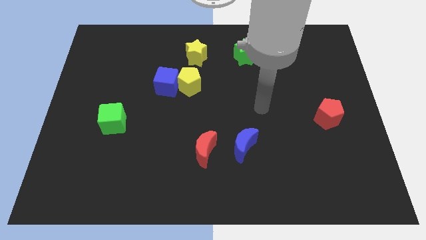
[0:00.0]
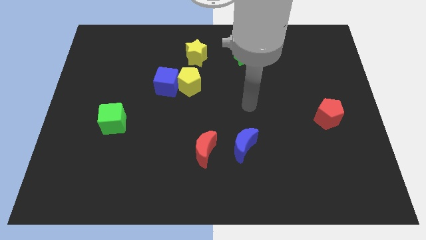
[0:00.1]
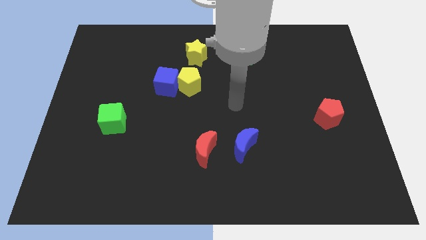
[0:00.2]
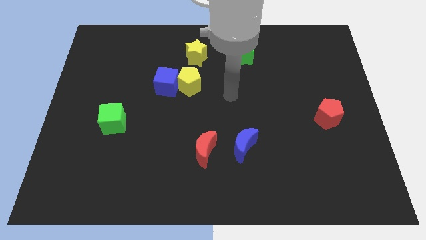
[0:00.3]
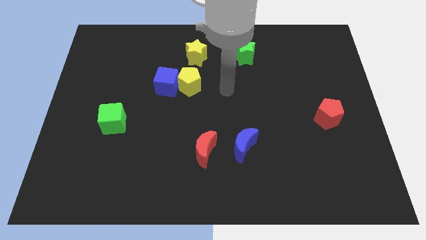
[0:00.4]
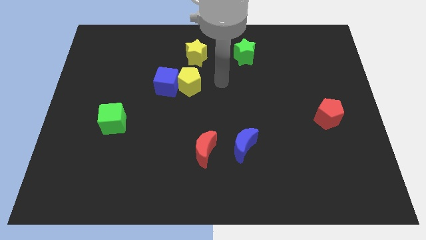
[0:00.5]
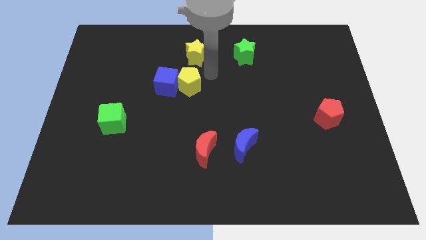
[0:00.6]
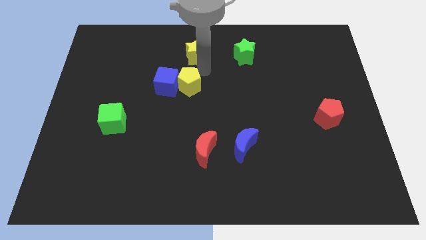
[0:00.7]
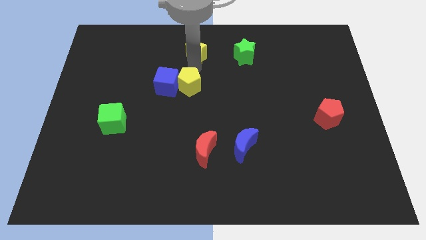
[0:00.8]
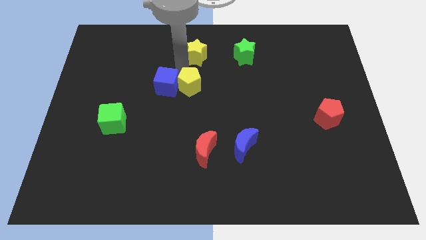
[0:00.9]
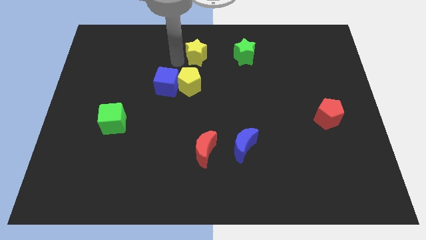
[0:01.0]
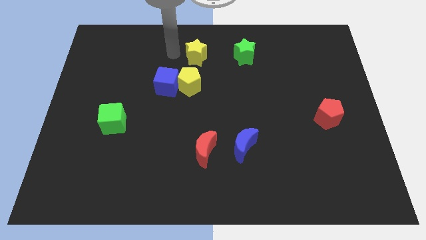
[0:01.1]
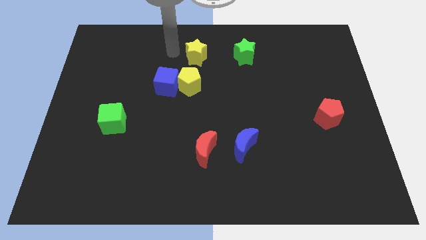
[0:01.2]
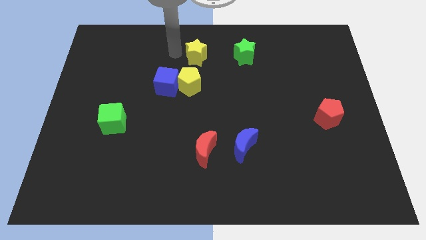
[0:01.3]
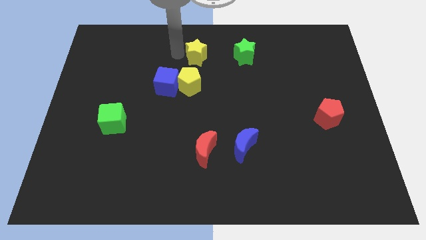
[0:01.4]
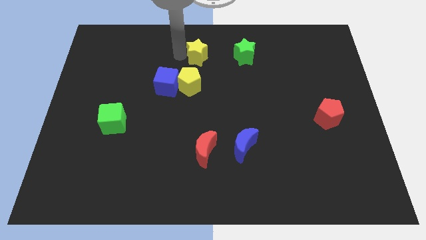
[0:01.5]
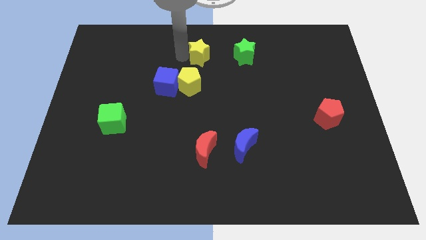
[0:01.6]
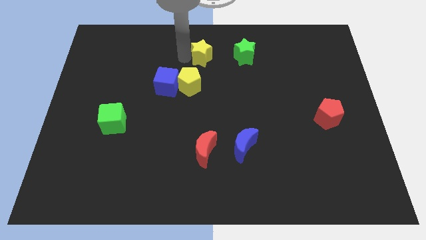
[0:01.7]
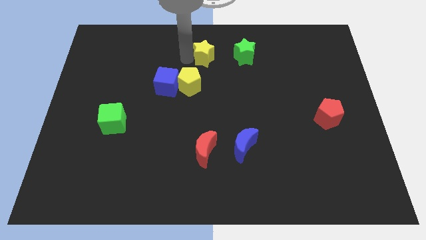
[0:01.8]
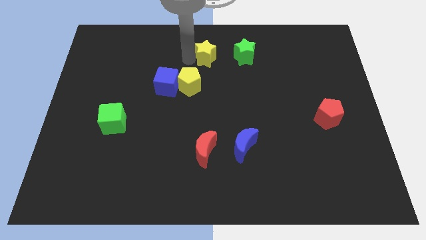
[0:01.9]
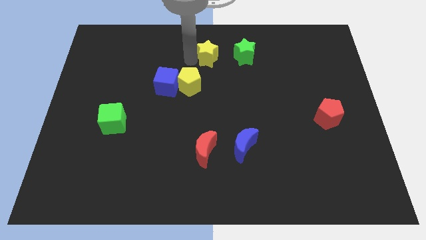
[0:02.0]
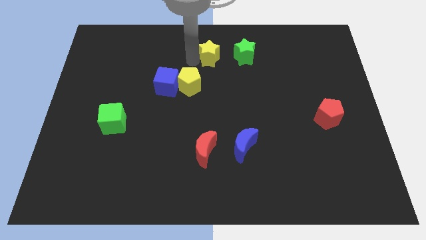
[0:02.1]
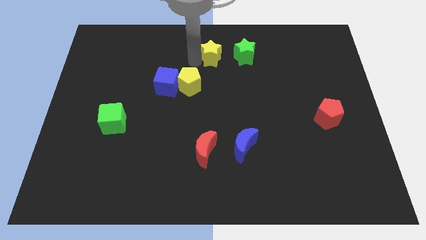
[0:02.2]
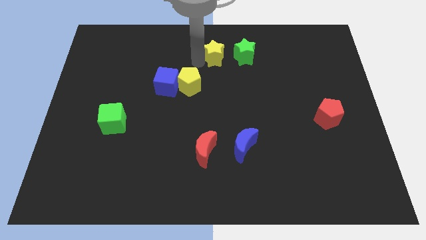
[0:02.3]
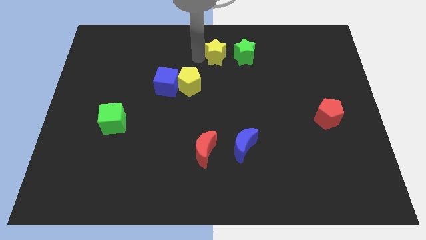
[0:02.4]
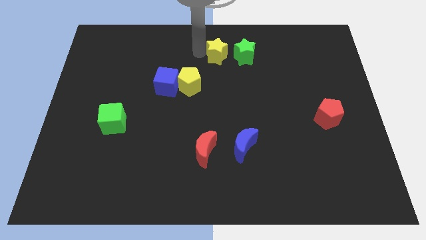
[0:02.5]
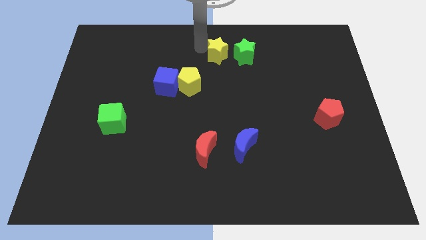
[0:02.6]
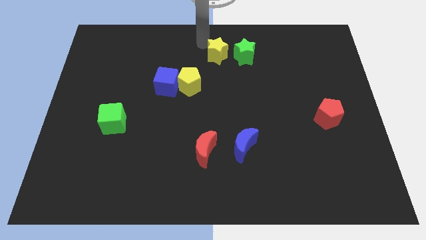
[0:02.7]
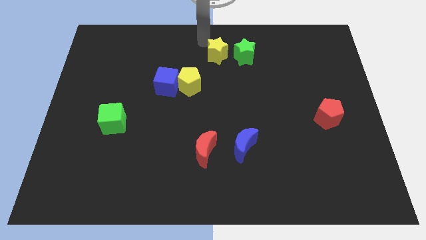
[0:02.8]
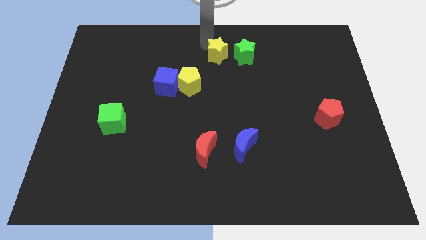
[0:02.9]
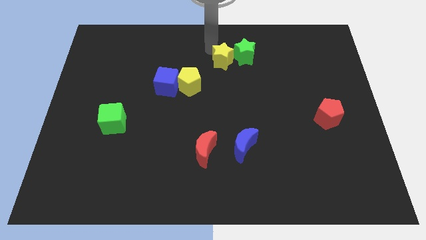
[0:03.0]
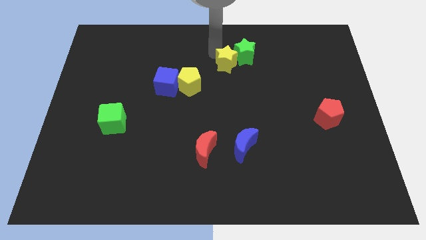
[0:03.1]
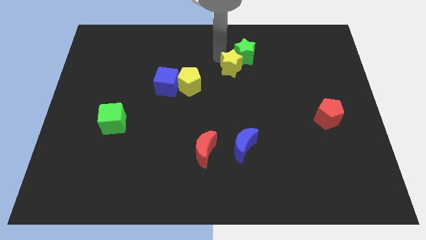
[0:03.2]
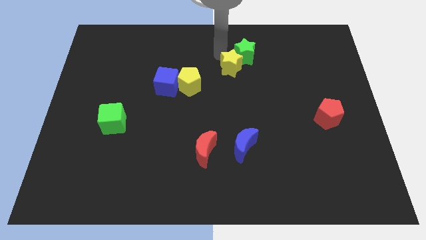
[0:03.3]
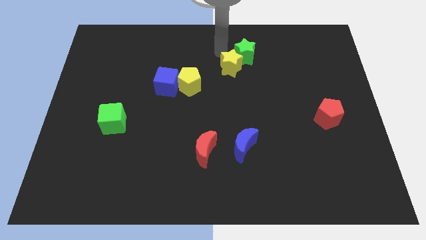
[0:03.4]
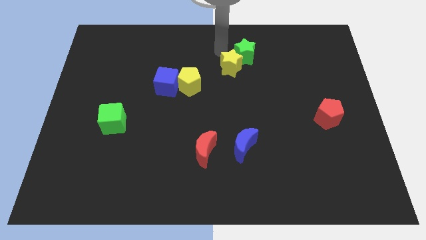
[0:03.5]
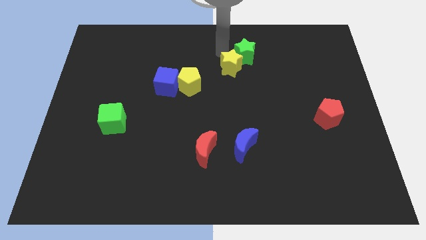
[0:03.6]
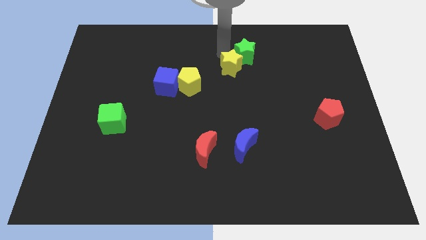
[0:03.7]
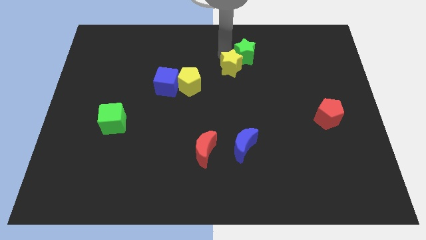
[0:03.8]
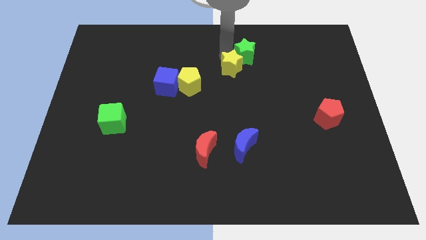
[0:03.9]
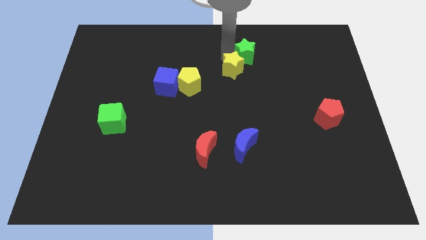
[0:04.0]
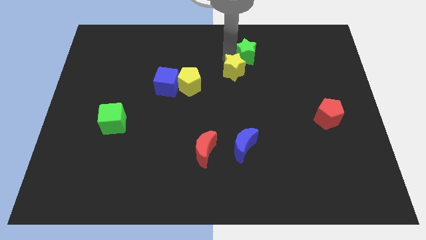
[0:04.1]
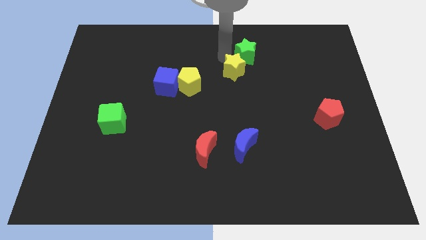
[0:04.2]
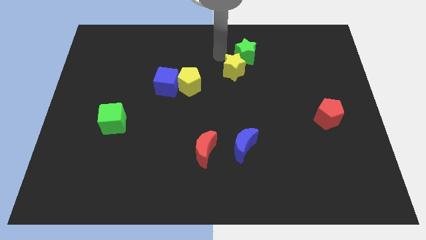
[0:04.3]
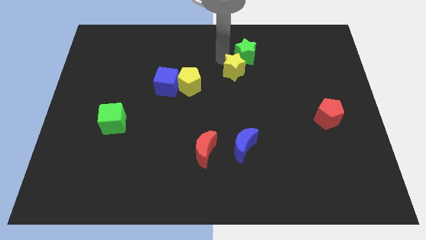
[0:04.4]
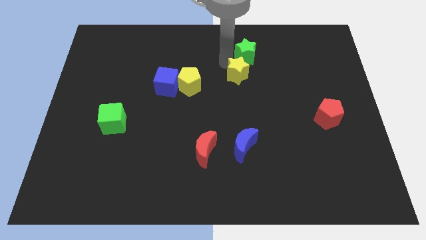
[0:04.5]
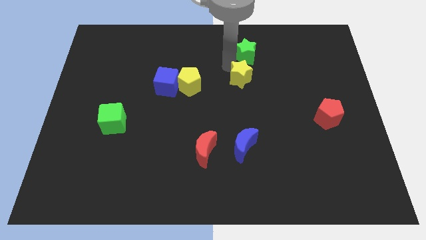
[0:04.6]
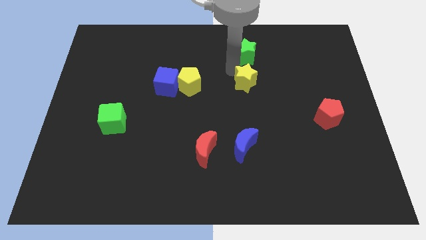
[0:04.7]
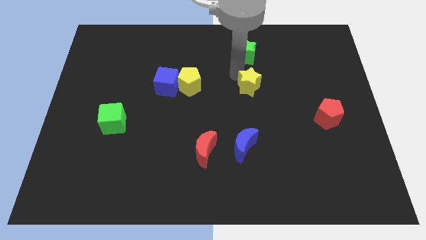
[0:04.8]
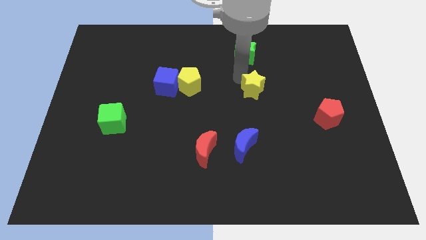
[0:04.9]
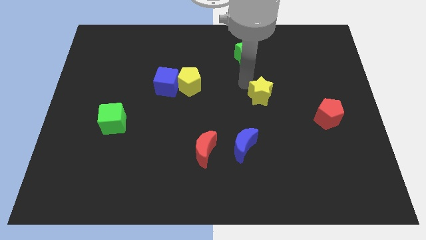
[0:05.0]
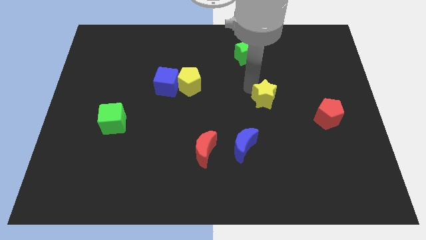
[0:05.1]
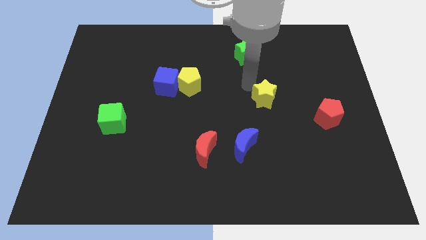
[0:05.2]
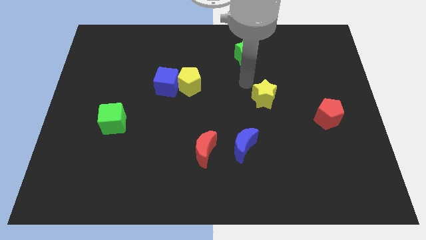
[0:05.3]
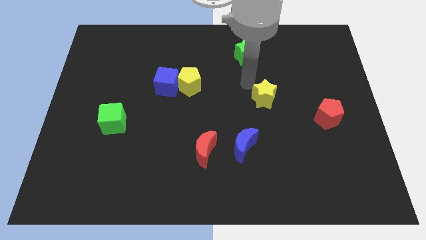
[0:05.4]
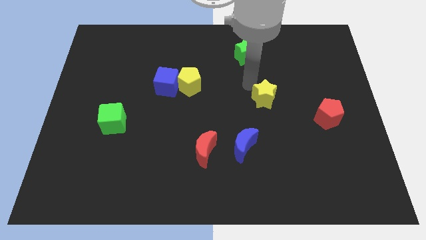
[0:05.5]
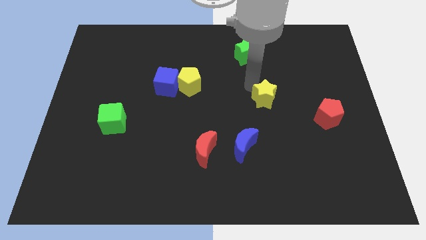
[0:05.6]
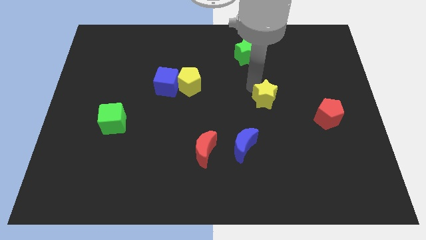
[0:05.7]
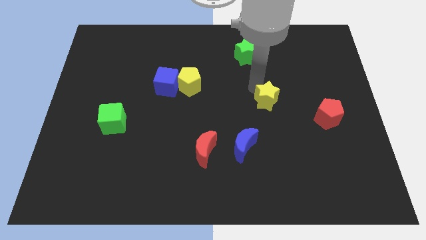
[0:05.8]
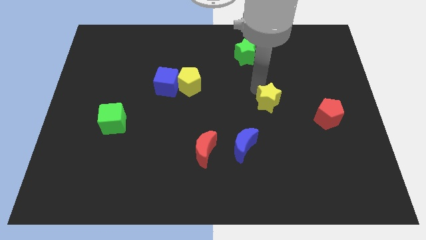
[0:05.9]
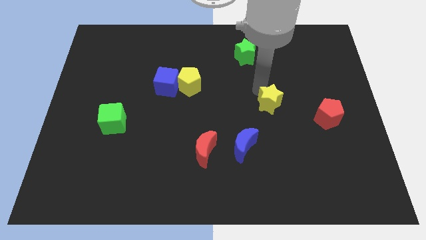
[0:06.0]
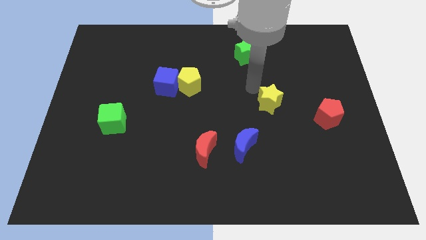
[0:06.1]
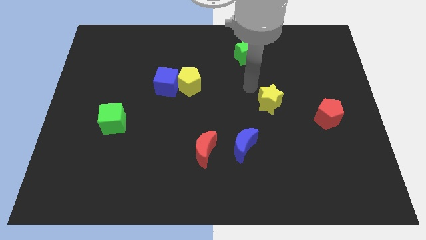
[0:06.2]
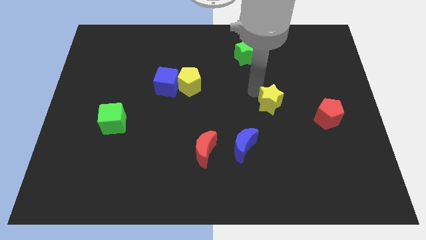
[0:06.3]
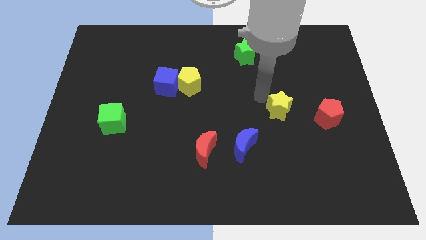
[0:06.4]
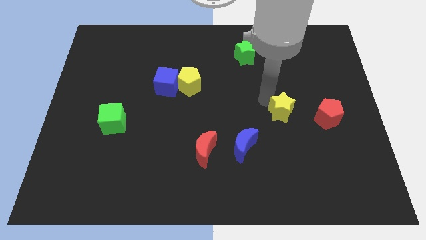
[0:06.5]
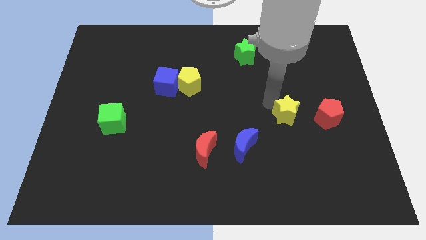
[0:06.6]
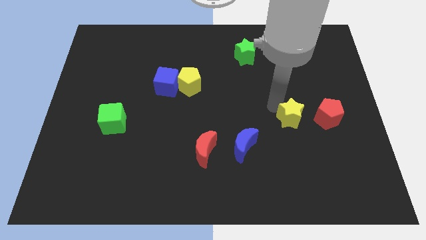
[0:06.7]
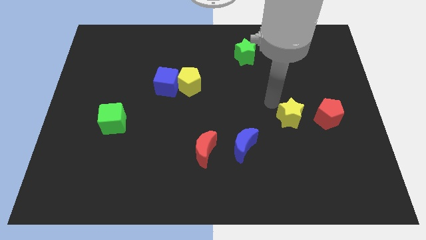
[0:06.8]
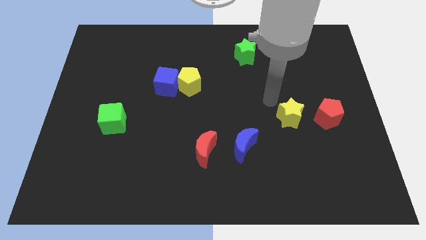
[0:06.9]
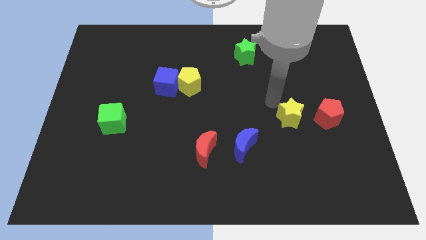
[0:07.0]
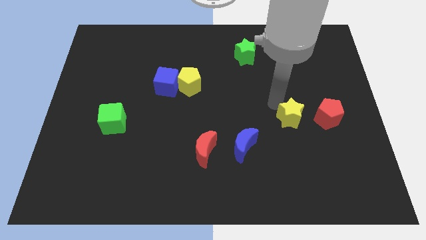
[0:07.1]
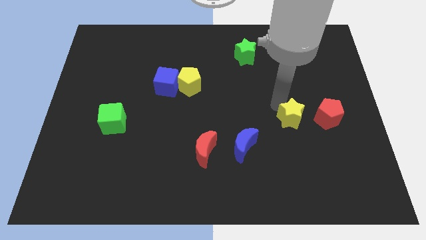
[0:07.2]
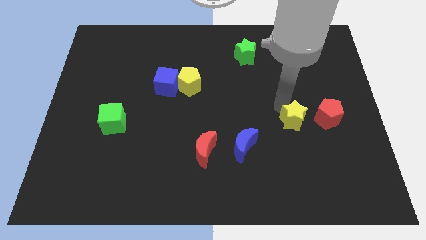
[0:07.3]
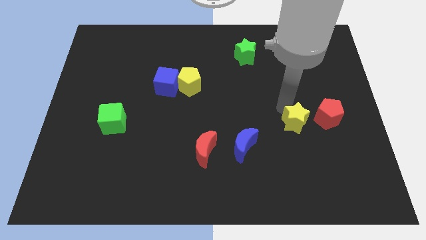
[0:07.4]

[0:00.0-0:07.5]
move the yellow star diagonally down and to the left of the red pentagon
